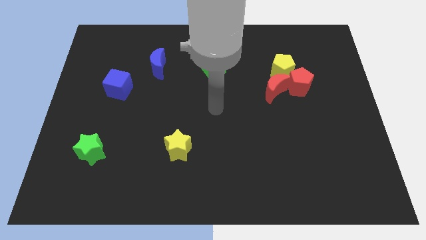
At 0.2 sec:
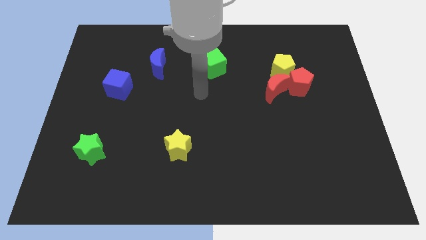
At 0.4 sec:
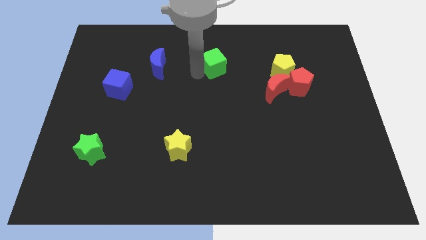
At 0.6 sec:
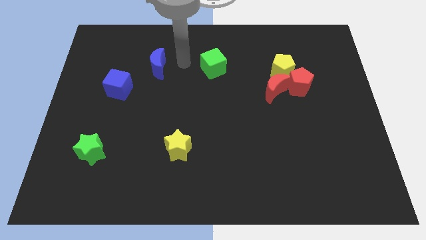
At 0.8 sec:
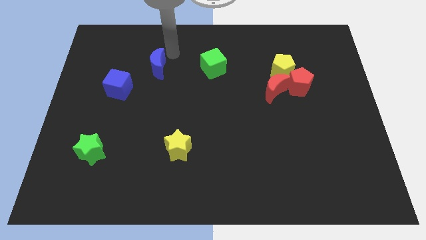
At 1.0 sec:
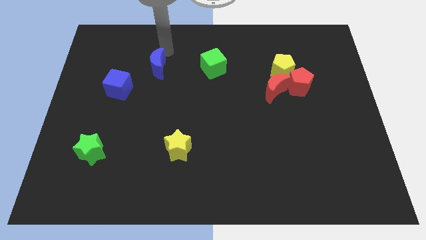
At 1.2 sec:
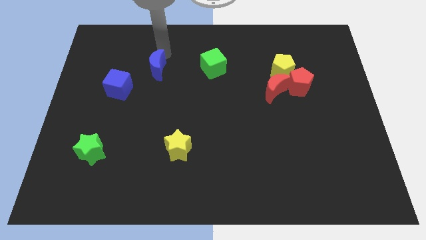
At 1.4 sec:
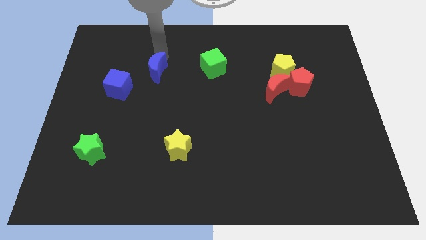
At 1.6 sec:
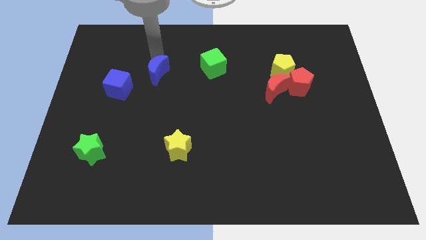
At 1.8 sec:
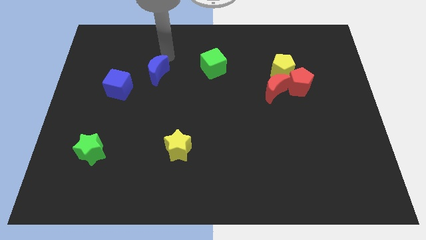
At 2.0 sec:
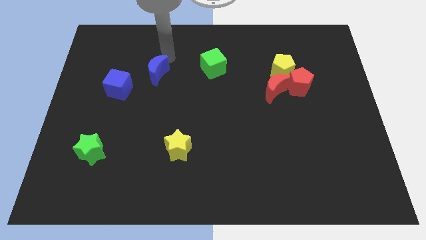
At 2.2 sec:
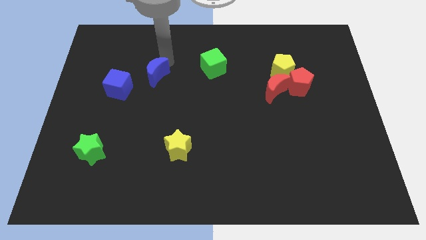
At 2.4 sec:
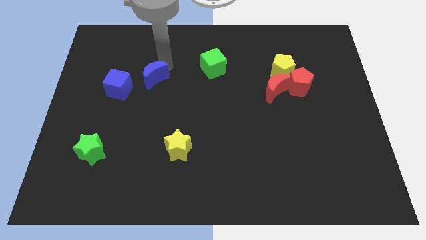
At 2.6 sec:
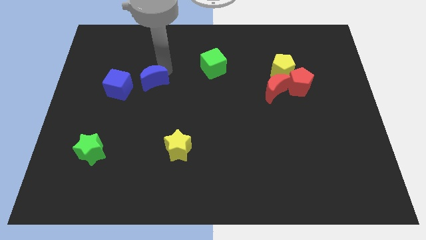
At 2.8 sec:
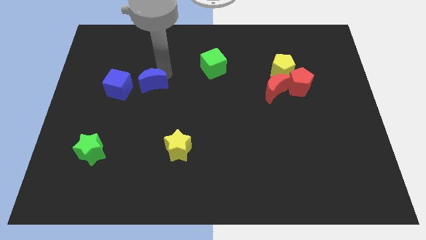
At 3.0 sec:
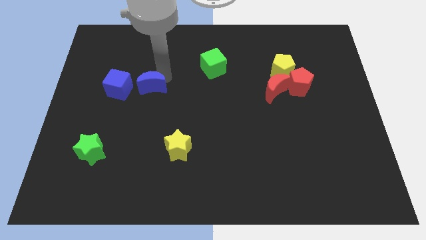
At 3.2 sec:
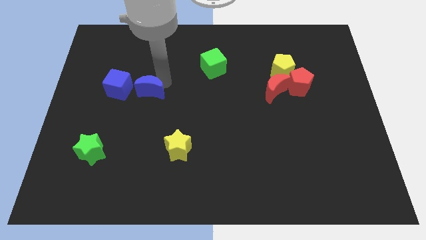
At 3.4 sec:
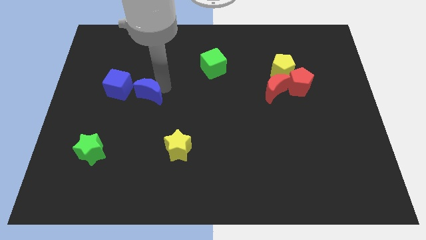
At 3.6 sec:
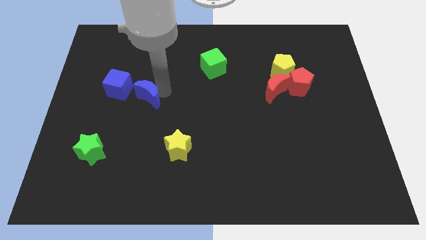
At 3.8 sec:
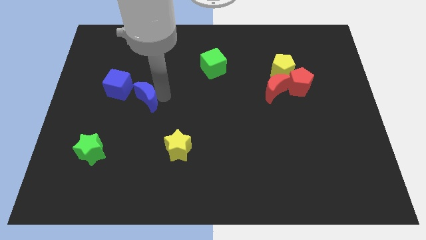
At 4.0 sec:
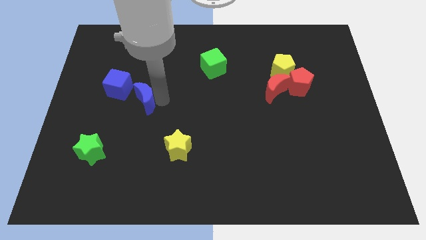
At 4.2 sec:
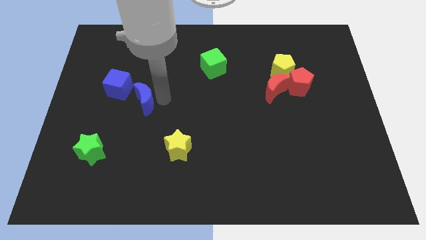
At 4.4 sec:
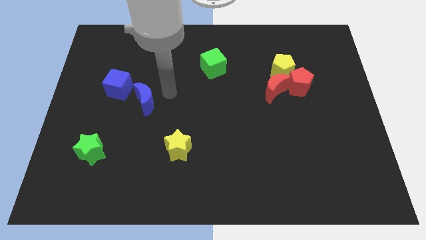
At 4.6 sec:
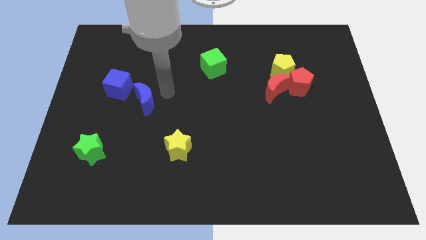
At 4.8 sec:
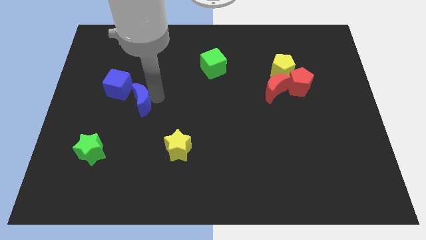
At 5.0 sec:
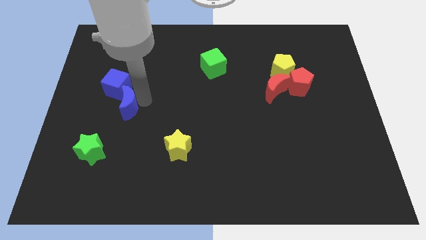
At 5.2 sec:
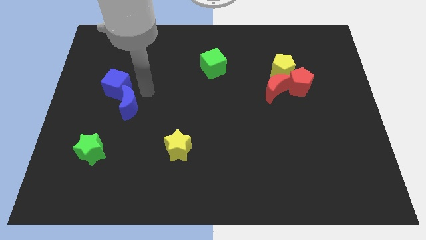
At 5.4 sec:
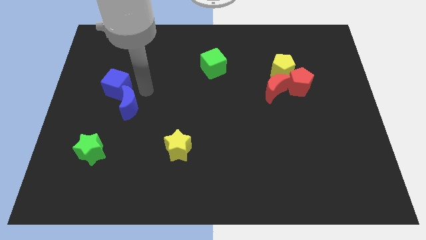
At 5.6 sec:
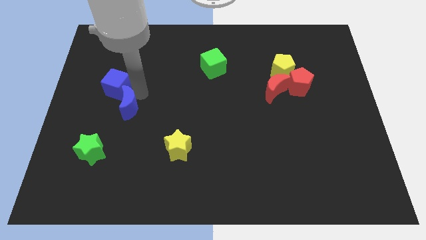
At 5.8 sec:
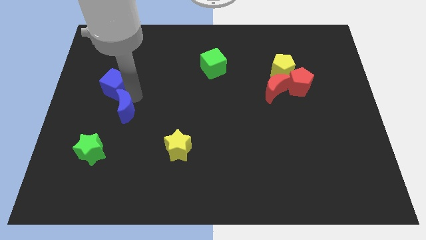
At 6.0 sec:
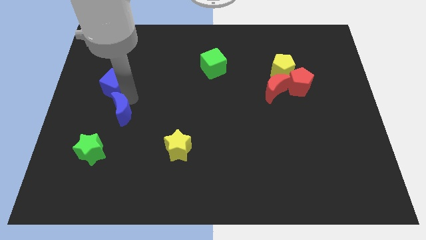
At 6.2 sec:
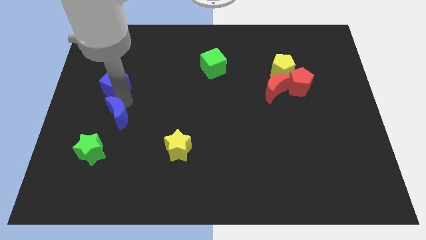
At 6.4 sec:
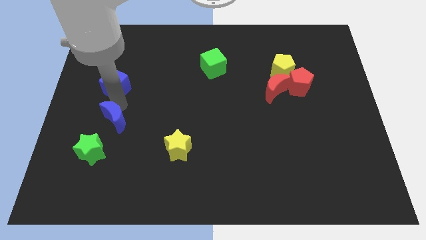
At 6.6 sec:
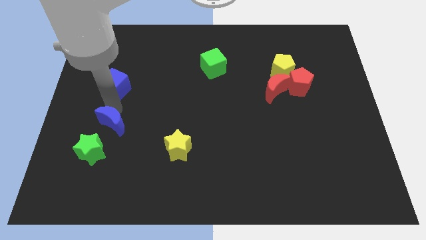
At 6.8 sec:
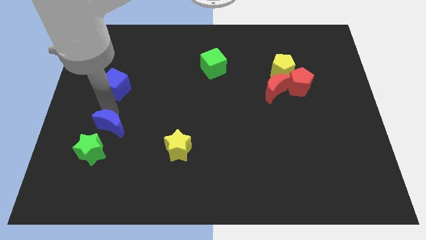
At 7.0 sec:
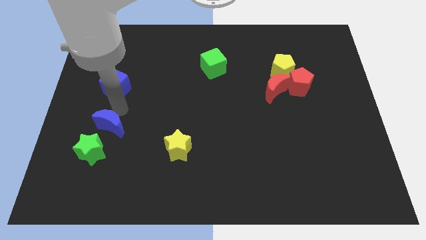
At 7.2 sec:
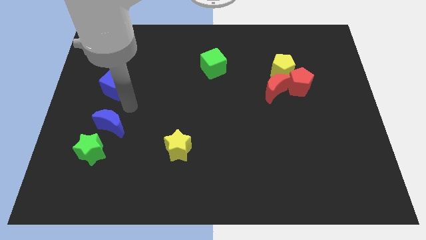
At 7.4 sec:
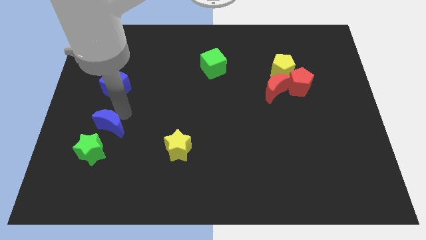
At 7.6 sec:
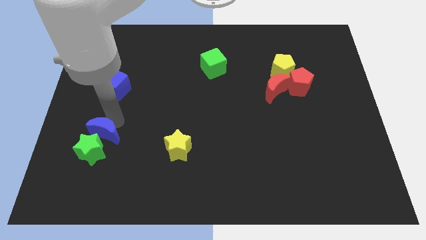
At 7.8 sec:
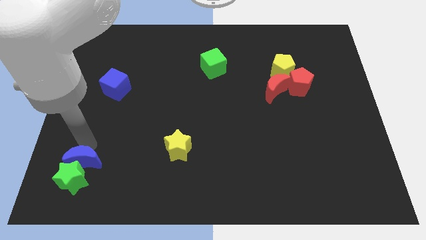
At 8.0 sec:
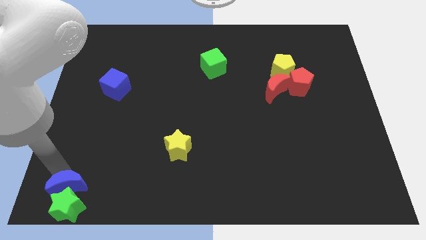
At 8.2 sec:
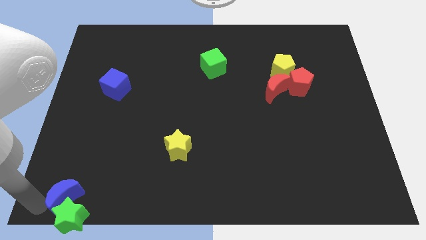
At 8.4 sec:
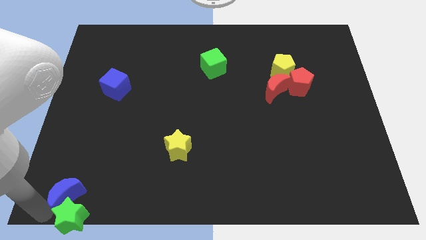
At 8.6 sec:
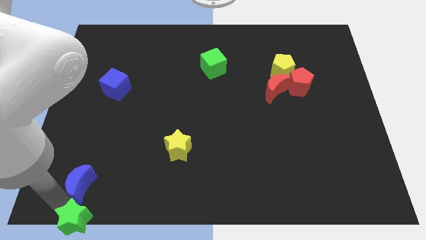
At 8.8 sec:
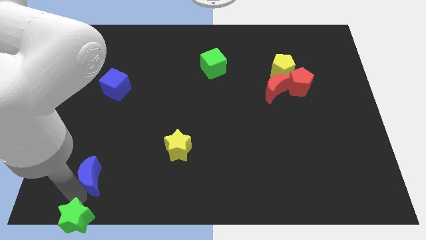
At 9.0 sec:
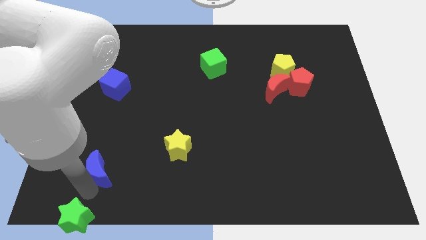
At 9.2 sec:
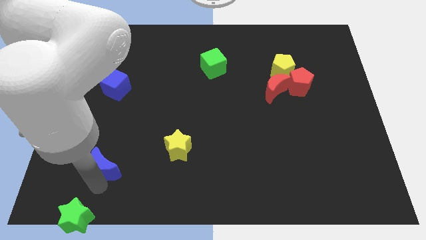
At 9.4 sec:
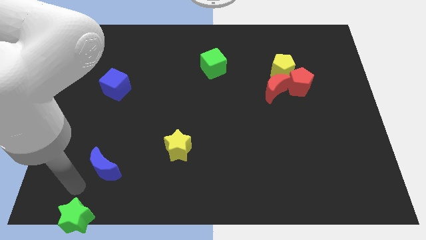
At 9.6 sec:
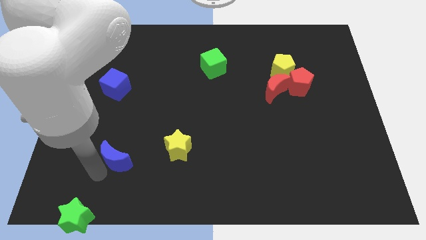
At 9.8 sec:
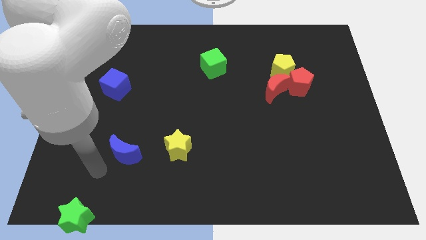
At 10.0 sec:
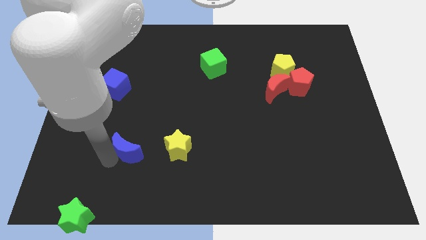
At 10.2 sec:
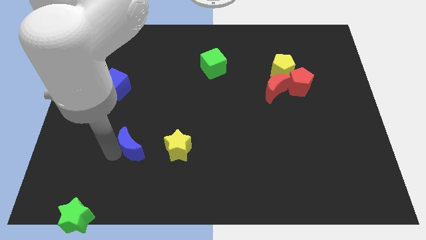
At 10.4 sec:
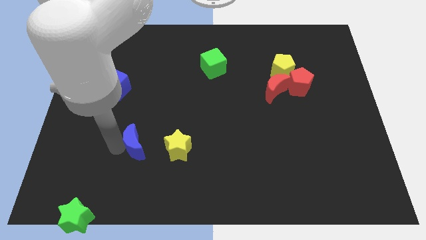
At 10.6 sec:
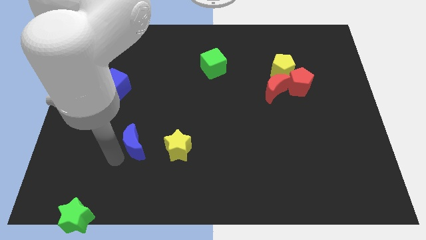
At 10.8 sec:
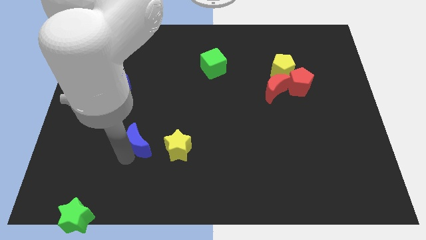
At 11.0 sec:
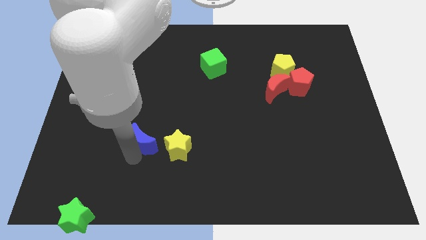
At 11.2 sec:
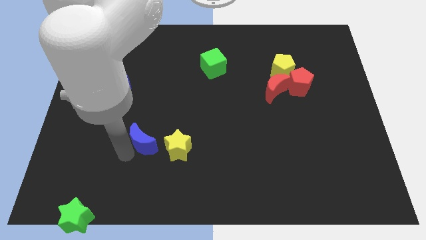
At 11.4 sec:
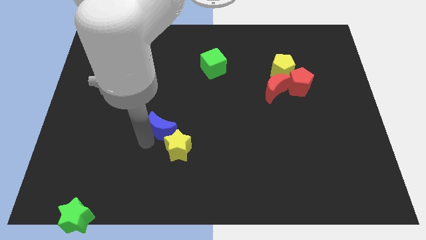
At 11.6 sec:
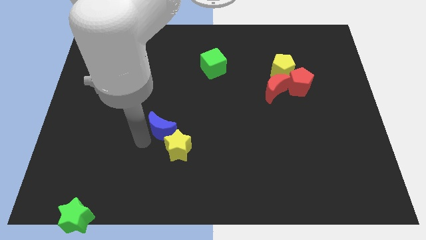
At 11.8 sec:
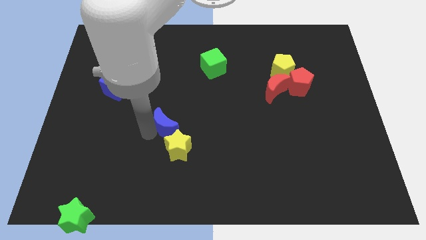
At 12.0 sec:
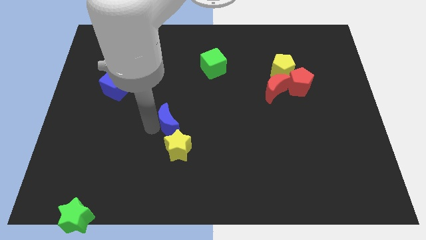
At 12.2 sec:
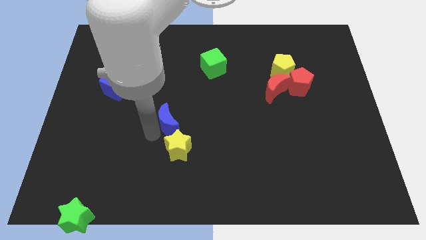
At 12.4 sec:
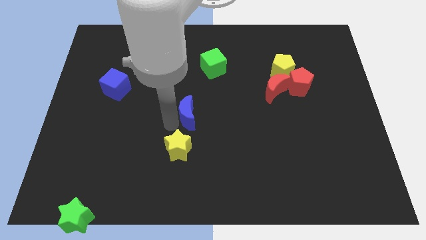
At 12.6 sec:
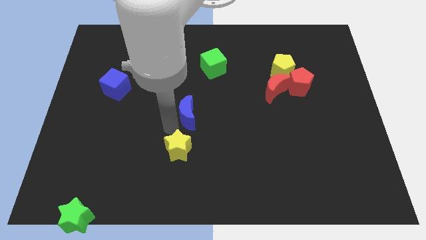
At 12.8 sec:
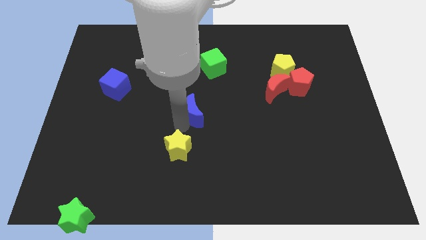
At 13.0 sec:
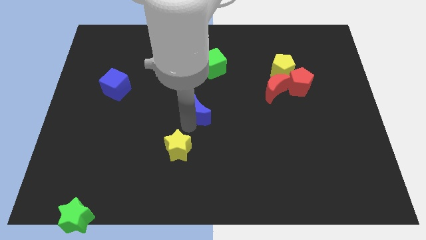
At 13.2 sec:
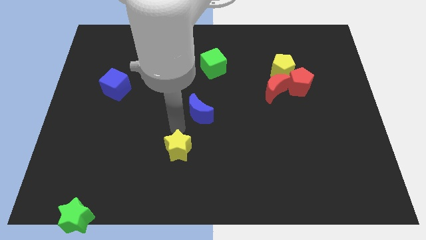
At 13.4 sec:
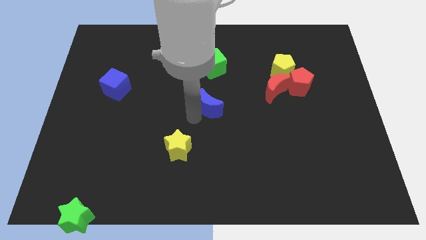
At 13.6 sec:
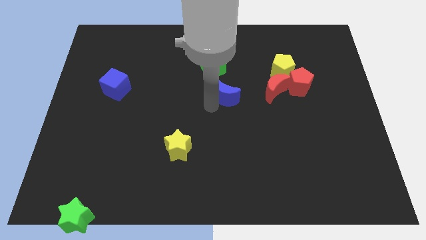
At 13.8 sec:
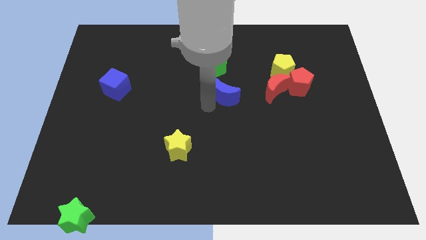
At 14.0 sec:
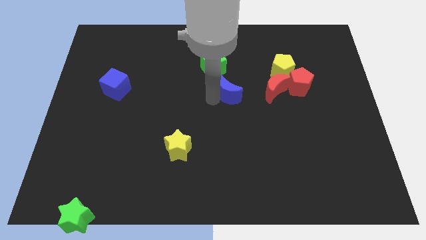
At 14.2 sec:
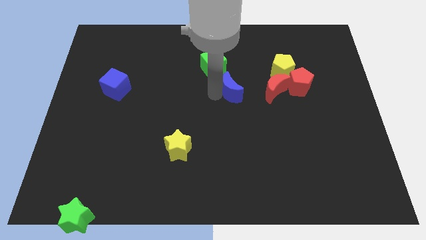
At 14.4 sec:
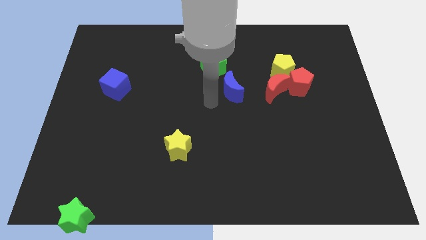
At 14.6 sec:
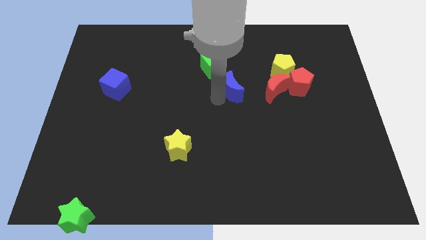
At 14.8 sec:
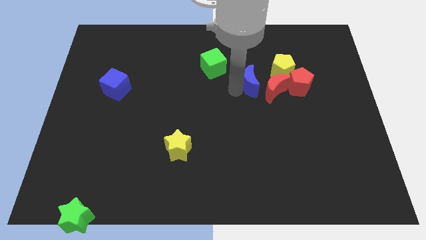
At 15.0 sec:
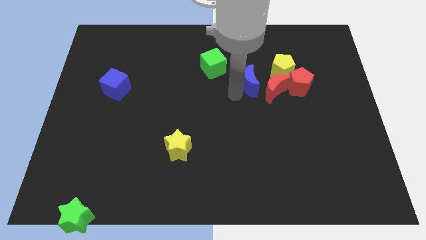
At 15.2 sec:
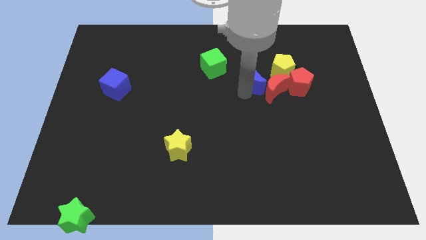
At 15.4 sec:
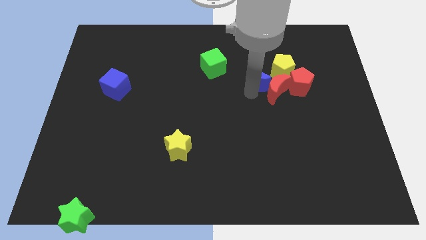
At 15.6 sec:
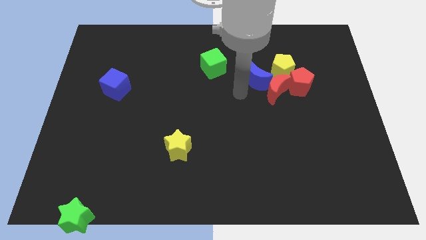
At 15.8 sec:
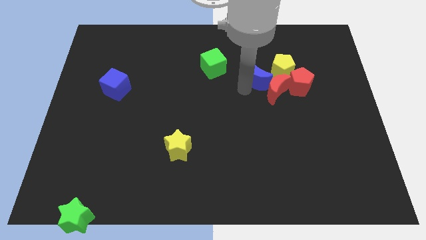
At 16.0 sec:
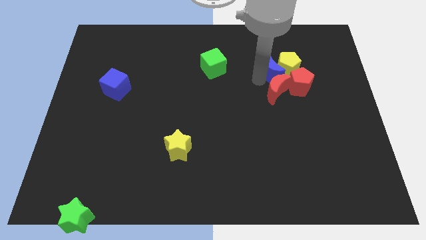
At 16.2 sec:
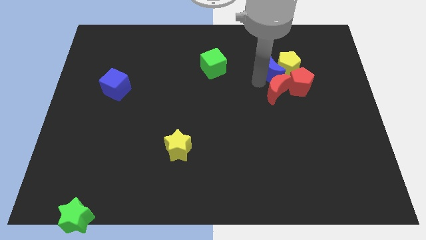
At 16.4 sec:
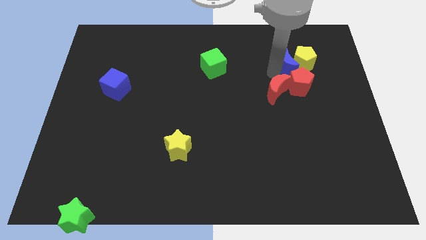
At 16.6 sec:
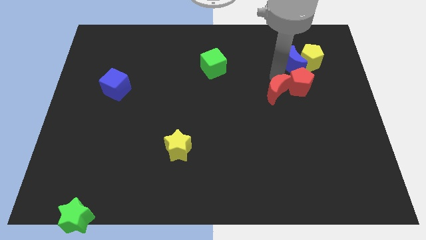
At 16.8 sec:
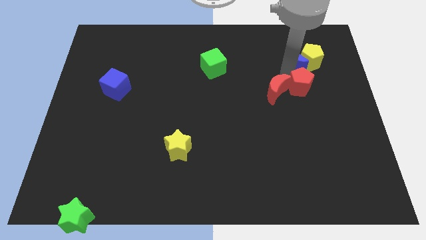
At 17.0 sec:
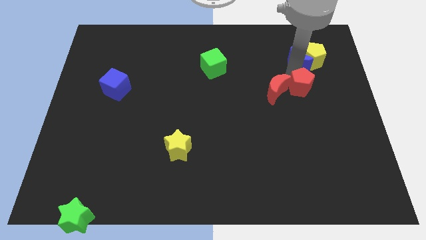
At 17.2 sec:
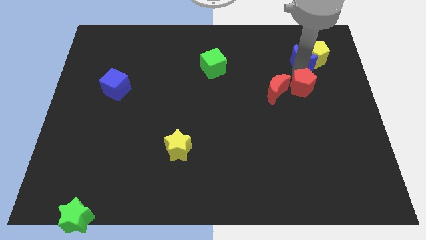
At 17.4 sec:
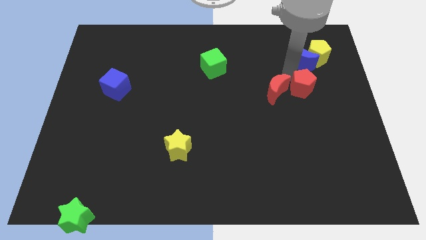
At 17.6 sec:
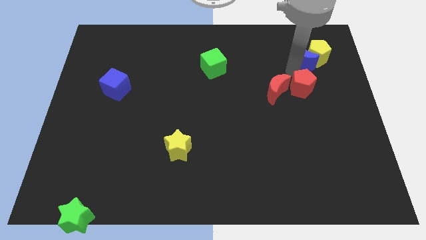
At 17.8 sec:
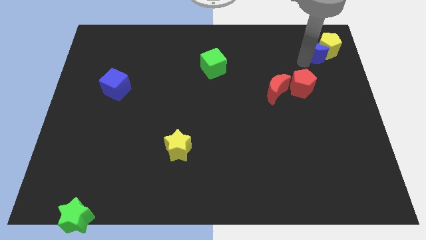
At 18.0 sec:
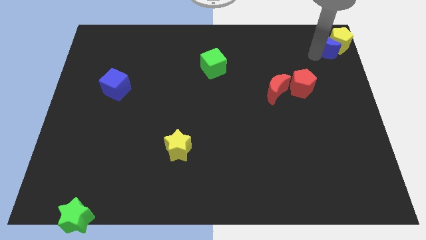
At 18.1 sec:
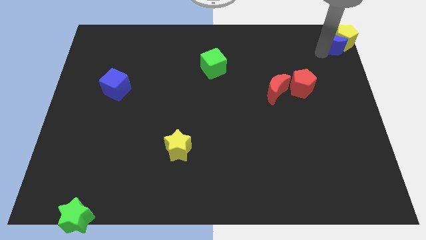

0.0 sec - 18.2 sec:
slide the blue moon to the top right corner
